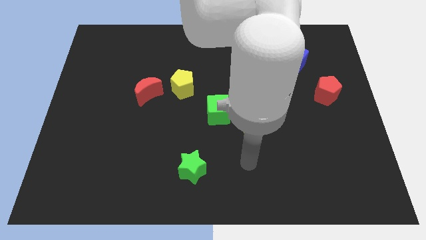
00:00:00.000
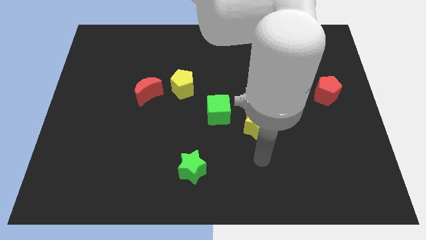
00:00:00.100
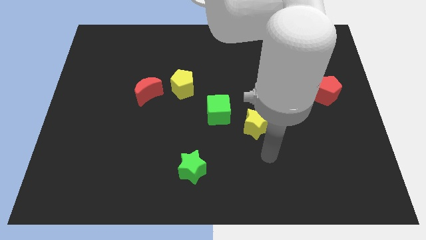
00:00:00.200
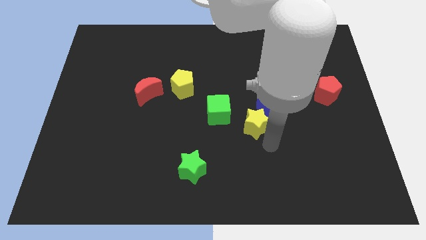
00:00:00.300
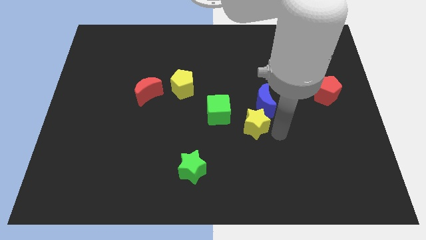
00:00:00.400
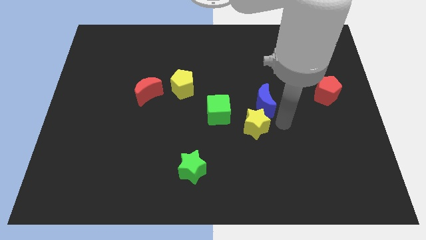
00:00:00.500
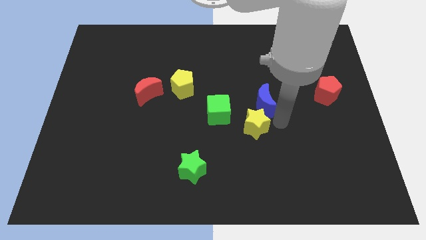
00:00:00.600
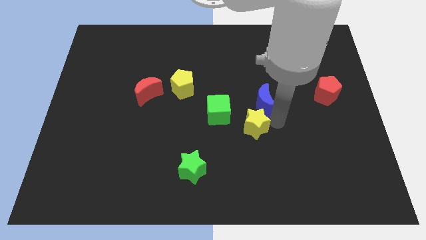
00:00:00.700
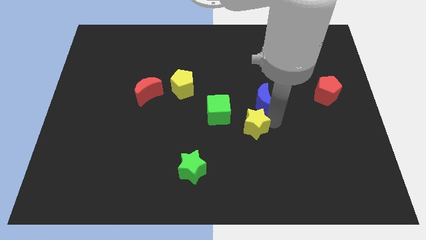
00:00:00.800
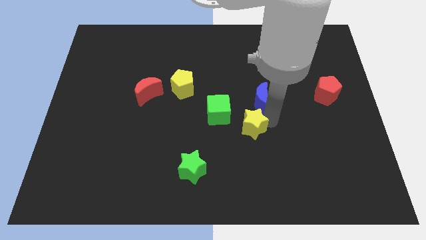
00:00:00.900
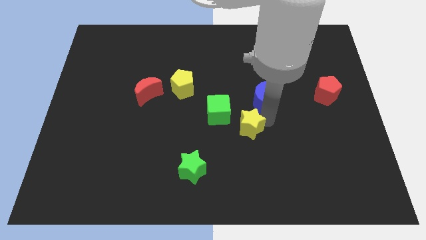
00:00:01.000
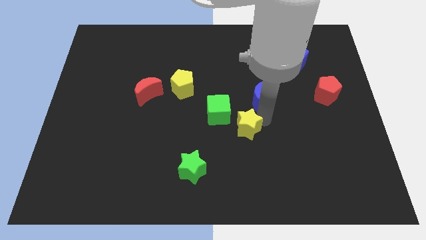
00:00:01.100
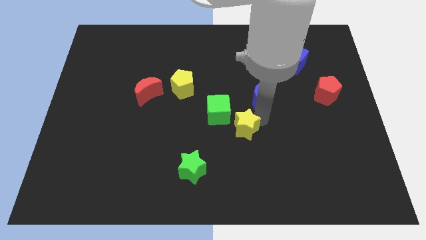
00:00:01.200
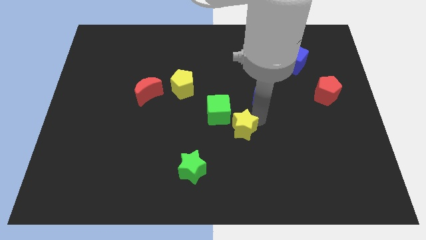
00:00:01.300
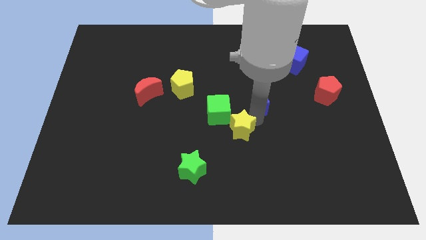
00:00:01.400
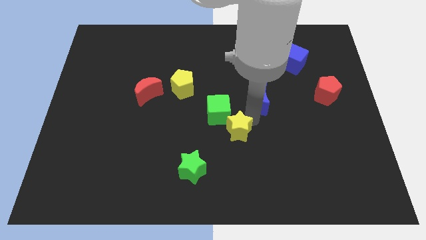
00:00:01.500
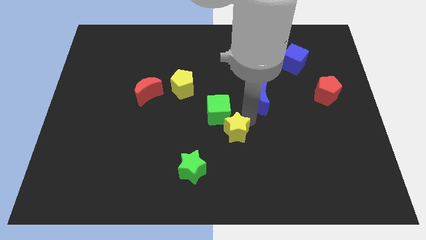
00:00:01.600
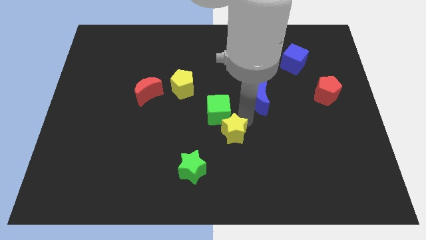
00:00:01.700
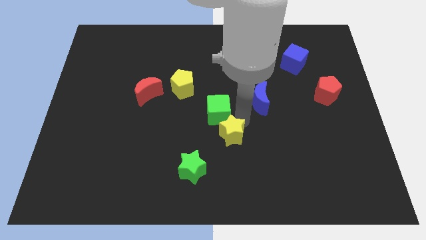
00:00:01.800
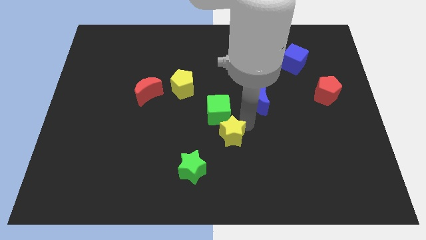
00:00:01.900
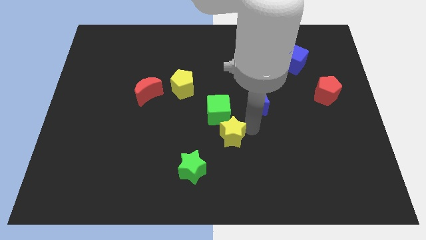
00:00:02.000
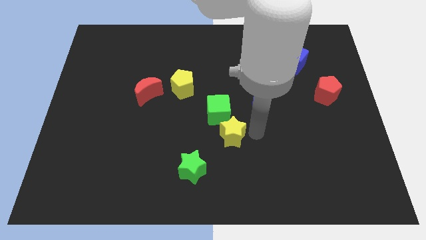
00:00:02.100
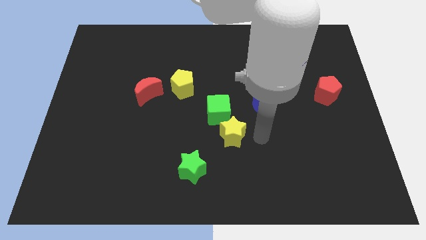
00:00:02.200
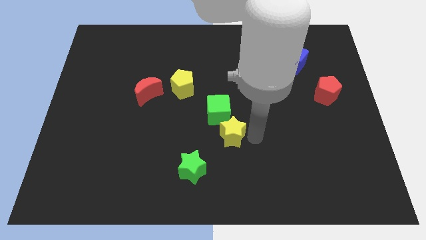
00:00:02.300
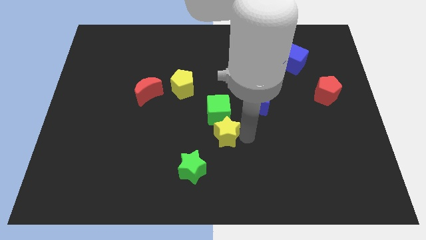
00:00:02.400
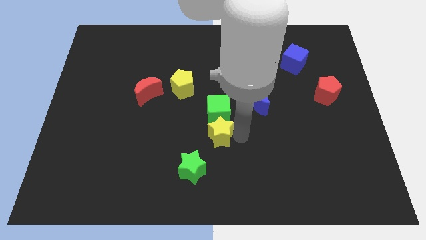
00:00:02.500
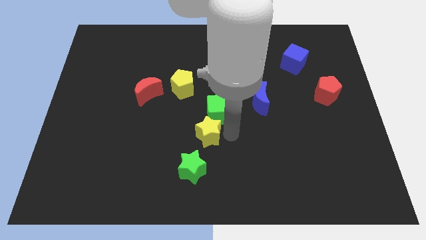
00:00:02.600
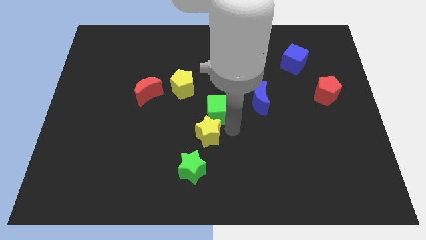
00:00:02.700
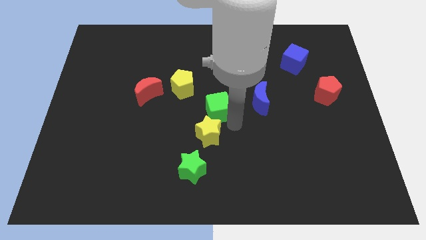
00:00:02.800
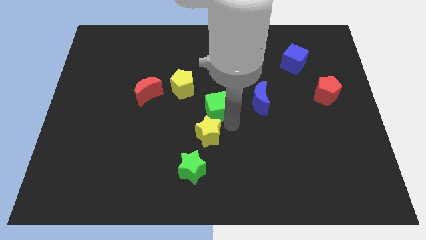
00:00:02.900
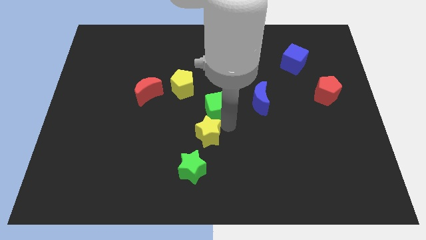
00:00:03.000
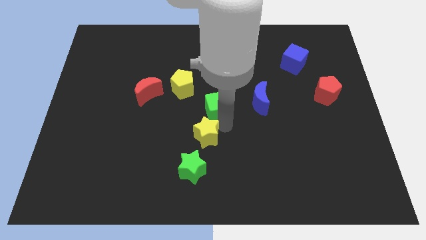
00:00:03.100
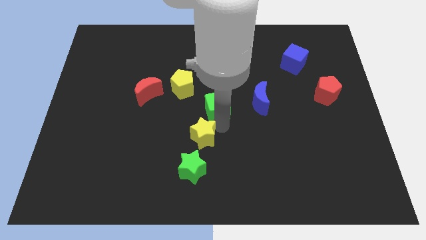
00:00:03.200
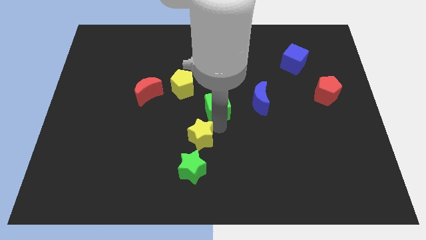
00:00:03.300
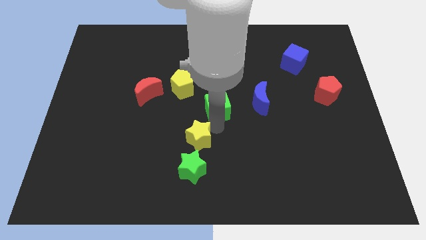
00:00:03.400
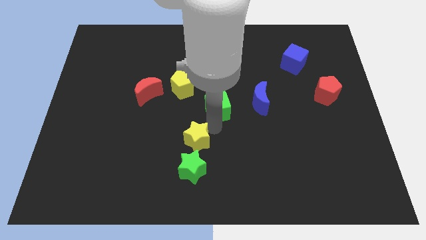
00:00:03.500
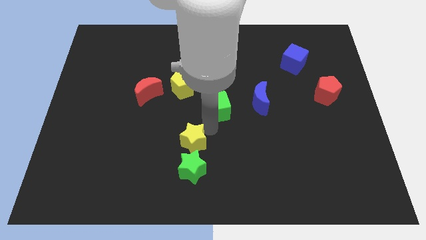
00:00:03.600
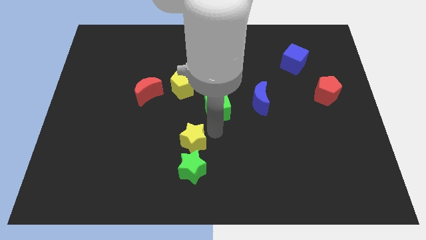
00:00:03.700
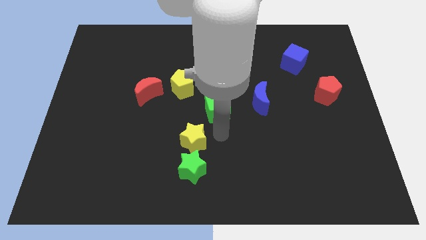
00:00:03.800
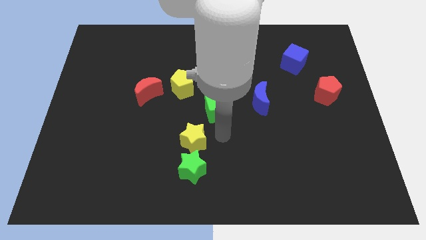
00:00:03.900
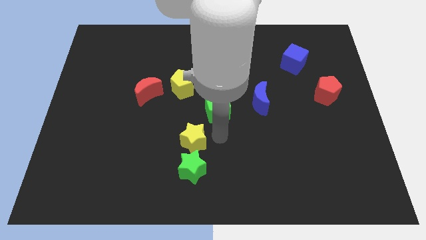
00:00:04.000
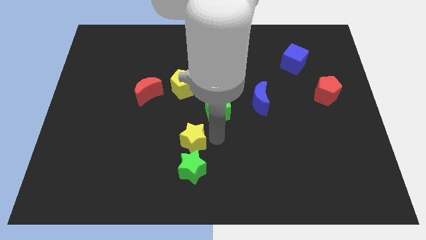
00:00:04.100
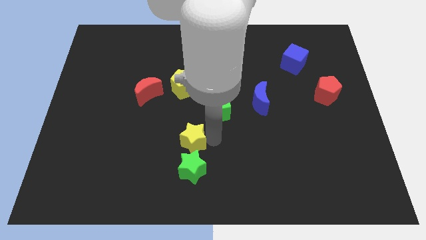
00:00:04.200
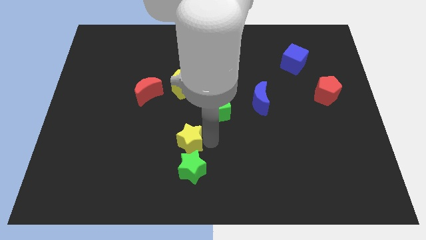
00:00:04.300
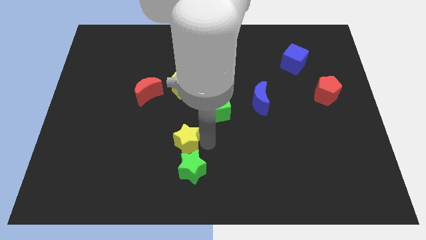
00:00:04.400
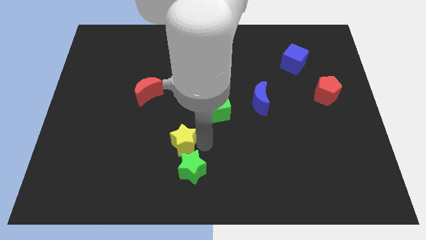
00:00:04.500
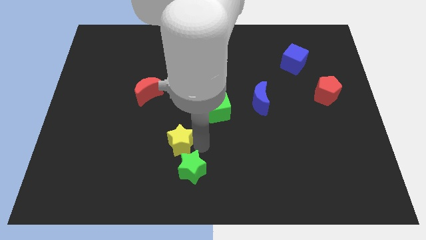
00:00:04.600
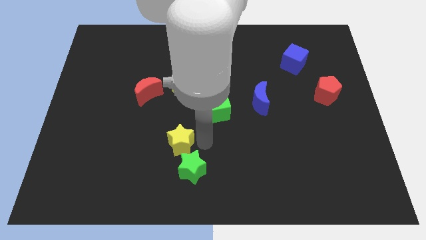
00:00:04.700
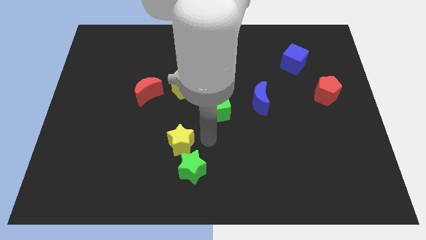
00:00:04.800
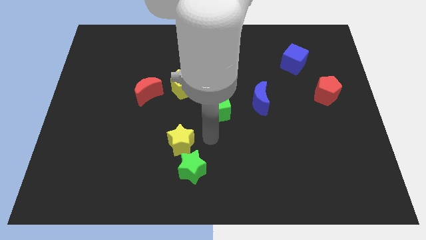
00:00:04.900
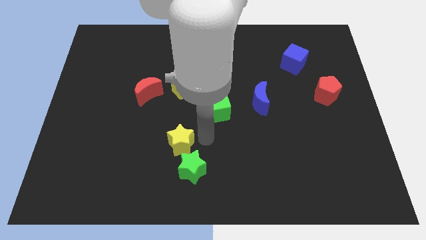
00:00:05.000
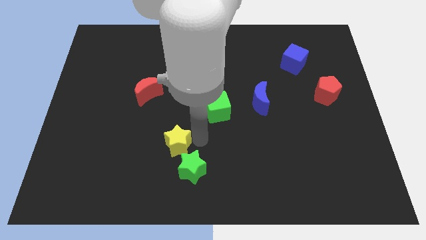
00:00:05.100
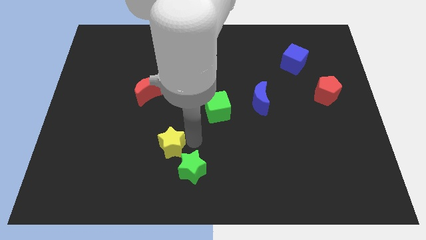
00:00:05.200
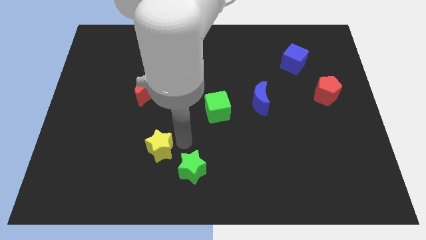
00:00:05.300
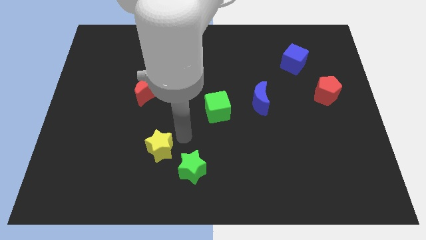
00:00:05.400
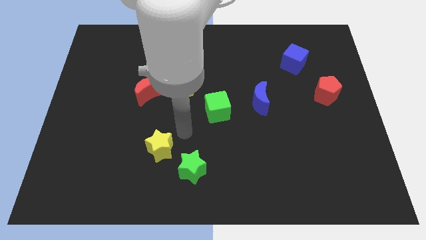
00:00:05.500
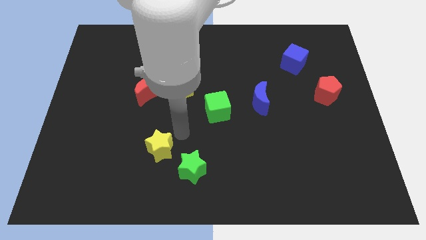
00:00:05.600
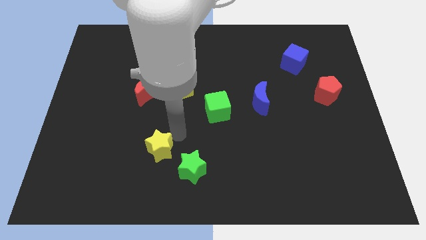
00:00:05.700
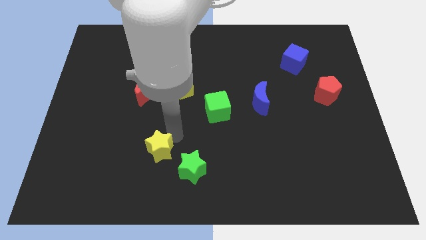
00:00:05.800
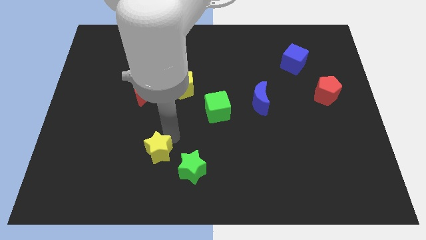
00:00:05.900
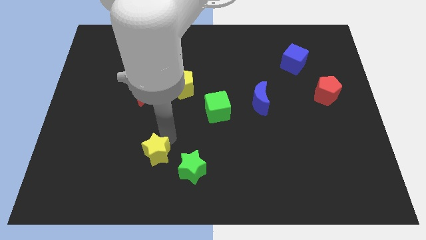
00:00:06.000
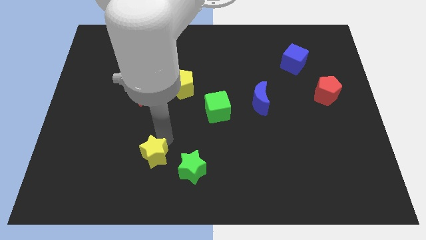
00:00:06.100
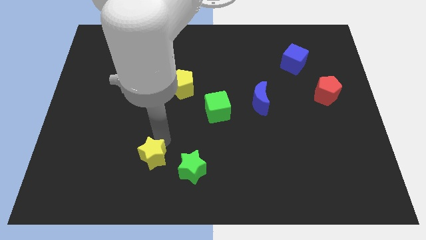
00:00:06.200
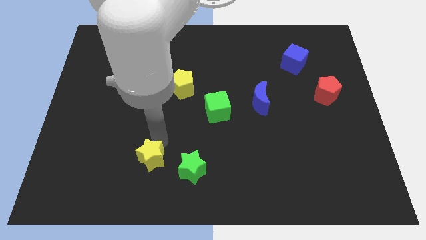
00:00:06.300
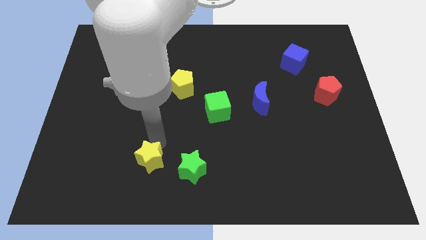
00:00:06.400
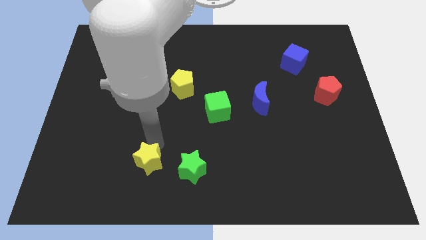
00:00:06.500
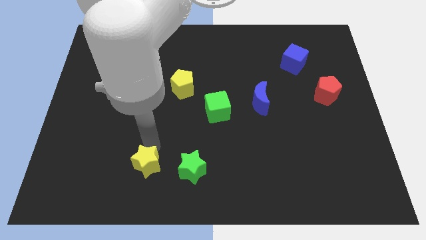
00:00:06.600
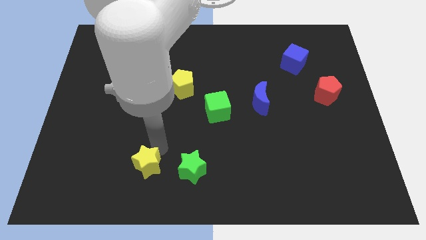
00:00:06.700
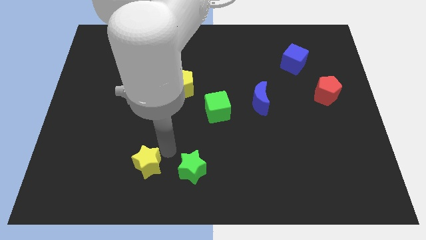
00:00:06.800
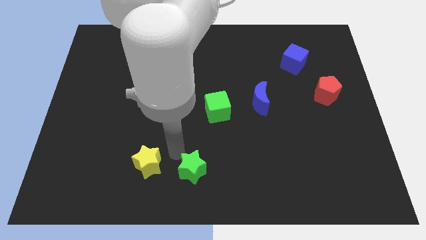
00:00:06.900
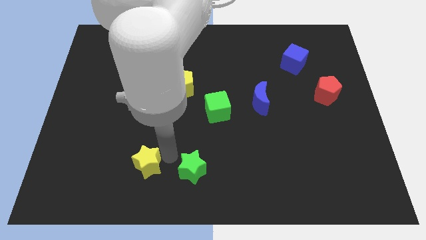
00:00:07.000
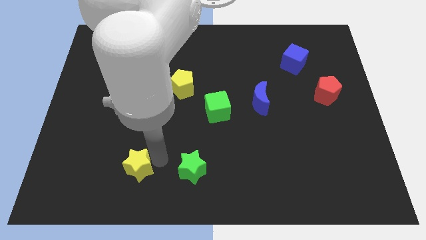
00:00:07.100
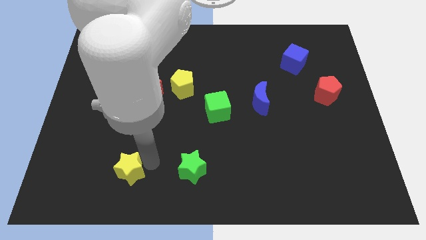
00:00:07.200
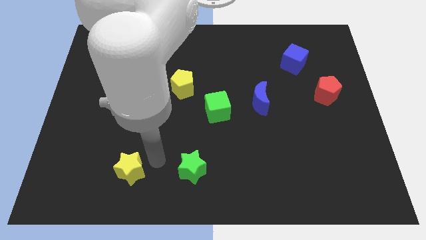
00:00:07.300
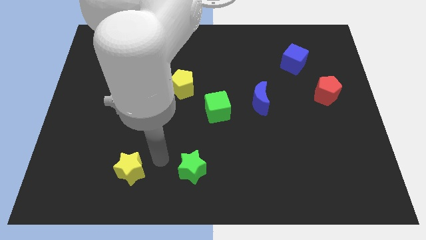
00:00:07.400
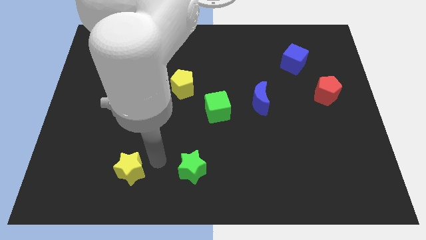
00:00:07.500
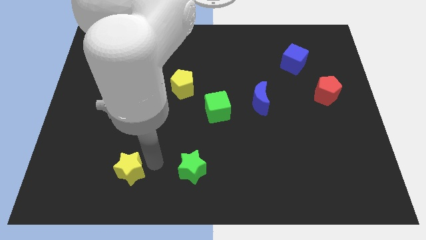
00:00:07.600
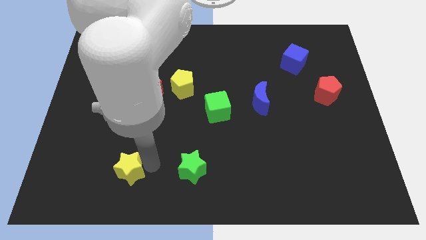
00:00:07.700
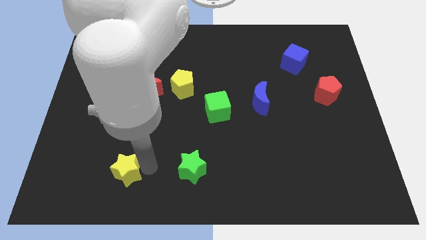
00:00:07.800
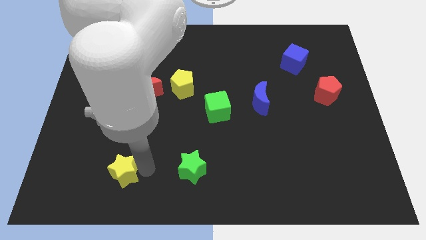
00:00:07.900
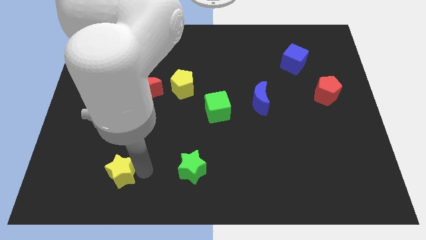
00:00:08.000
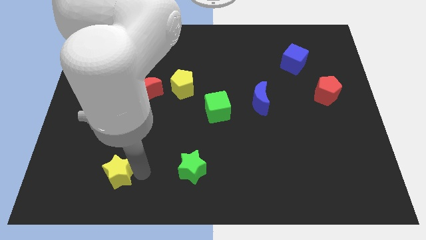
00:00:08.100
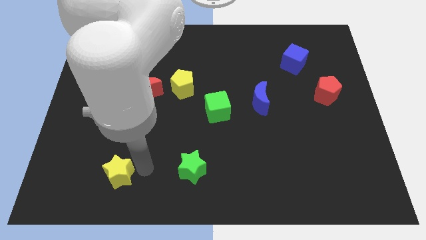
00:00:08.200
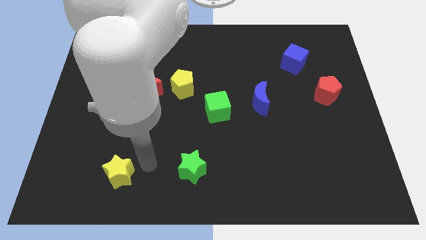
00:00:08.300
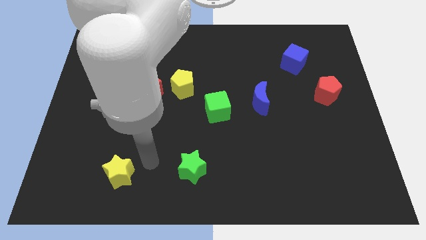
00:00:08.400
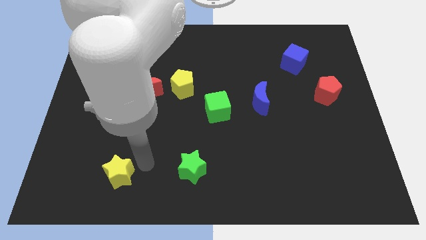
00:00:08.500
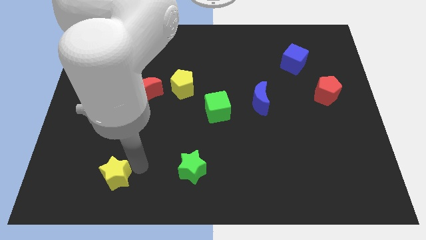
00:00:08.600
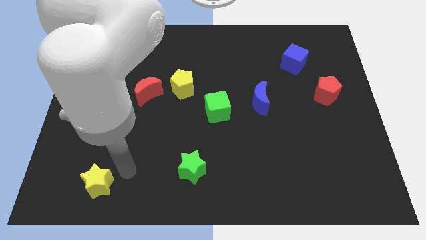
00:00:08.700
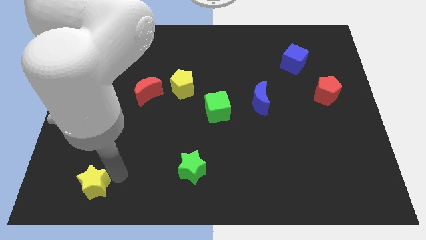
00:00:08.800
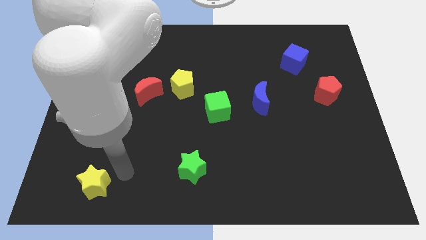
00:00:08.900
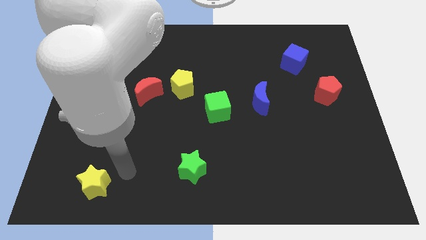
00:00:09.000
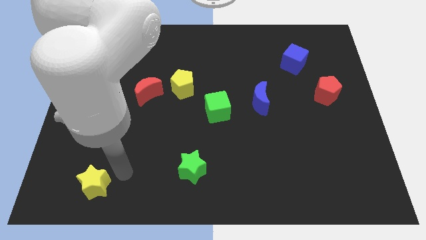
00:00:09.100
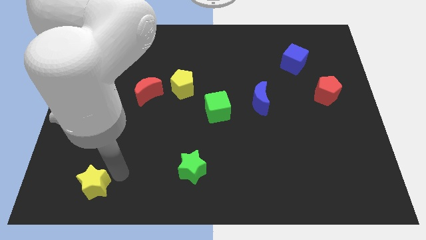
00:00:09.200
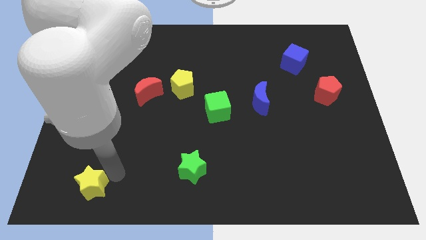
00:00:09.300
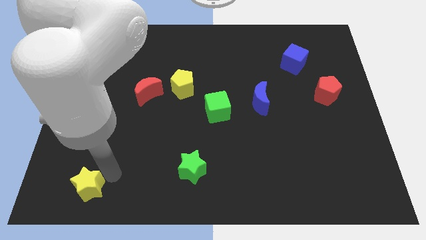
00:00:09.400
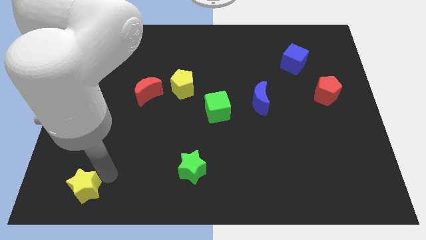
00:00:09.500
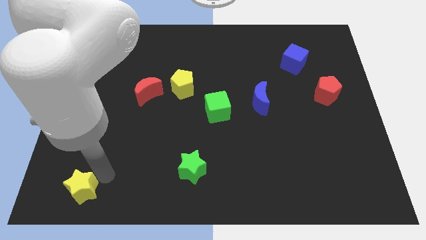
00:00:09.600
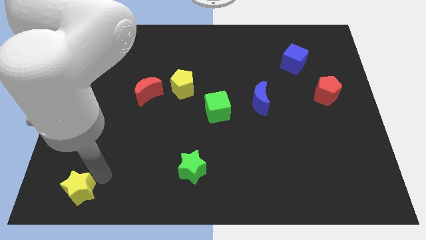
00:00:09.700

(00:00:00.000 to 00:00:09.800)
put the yellow star to the bottom left of the board
